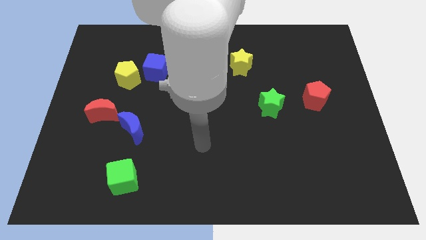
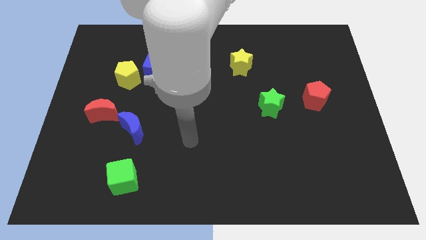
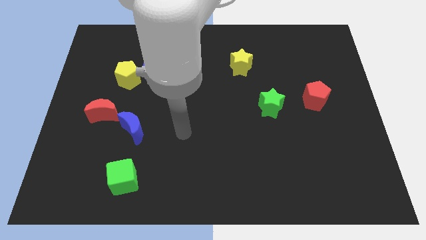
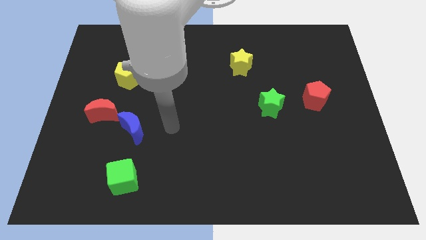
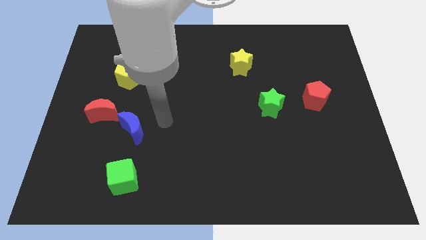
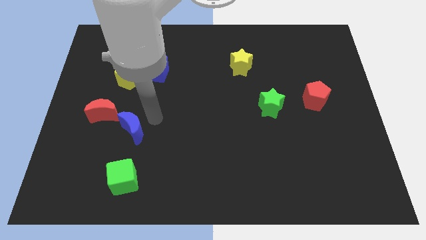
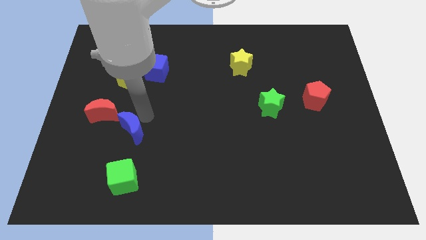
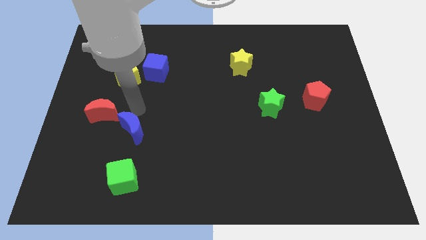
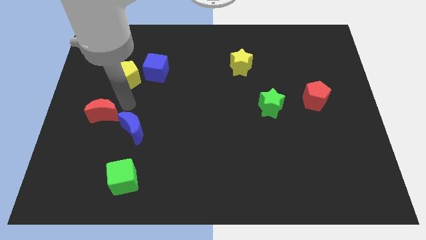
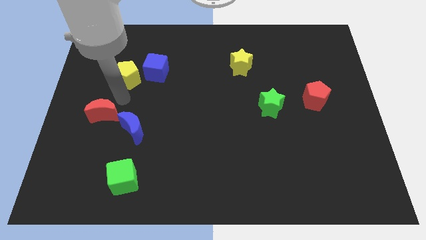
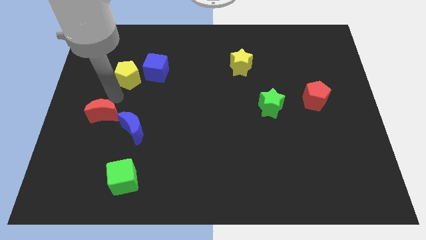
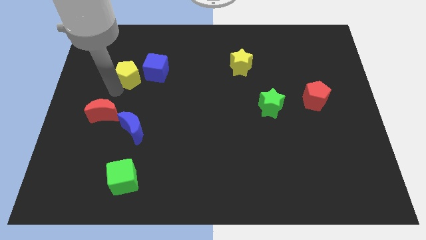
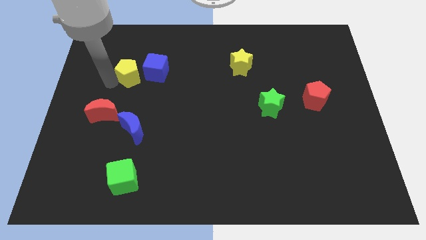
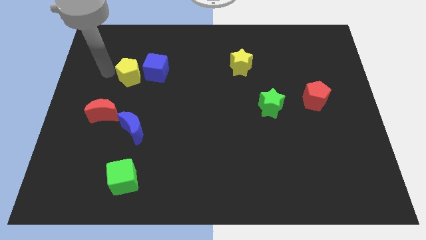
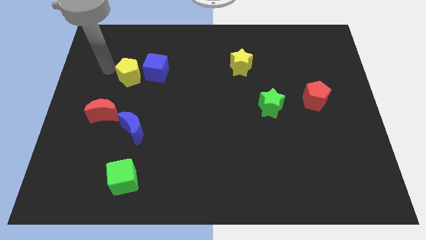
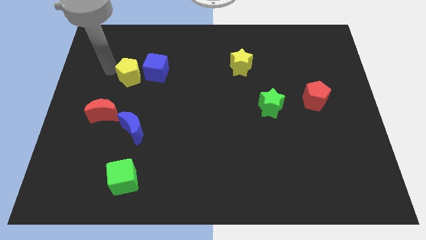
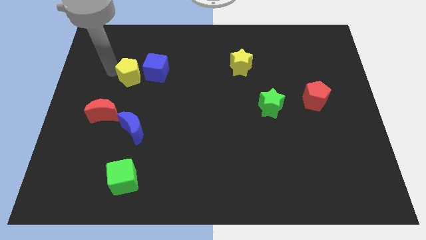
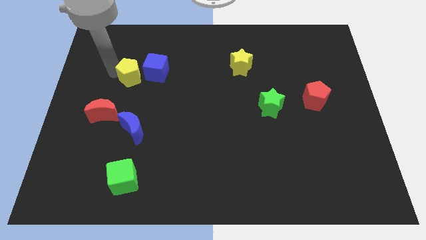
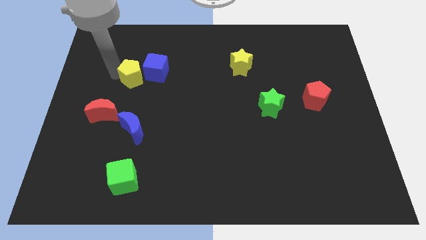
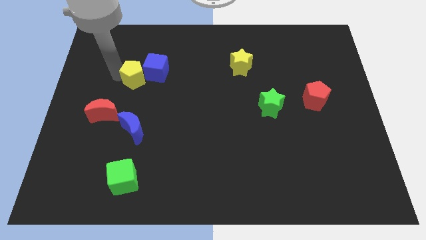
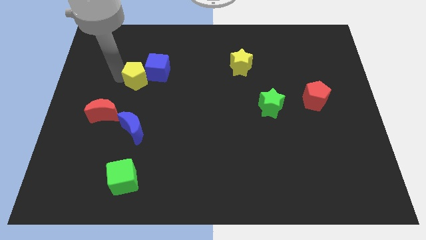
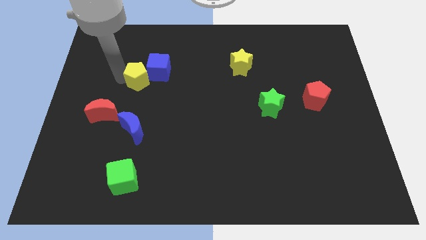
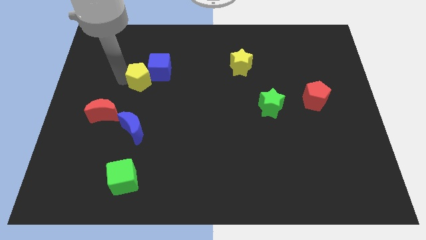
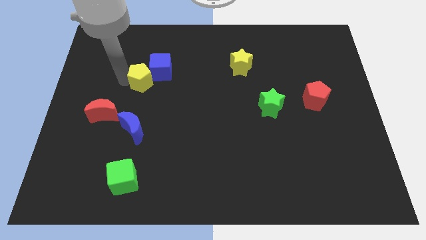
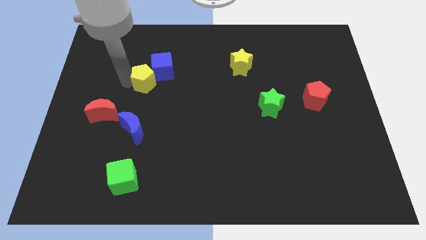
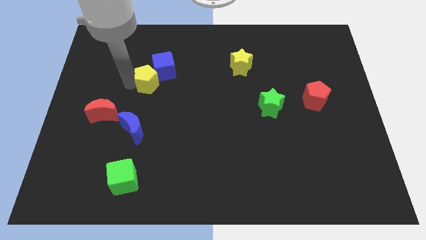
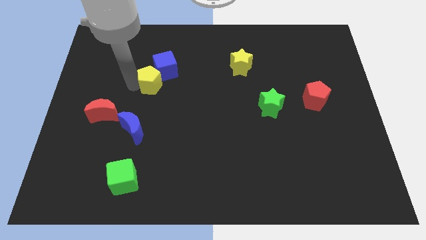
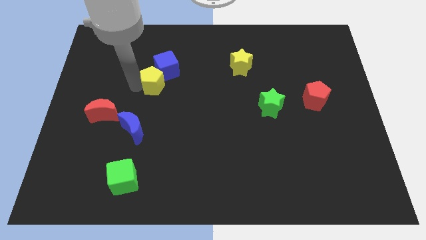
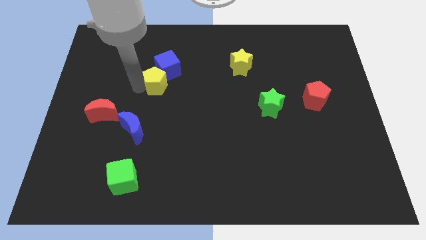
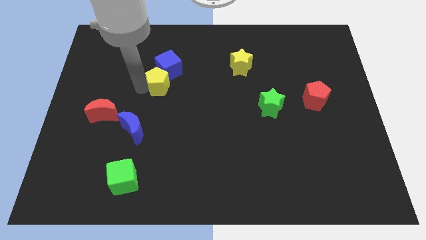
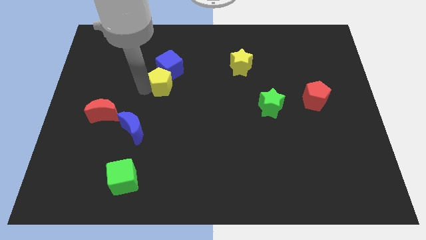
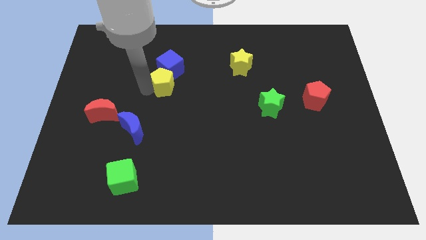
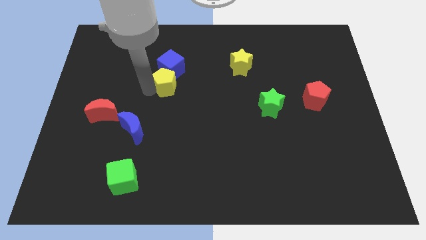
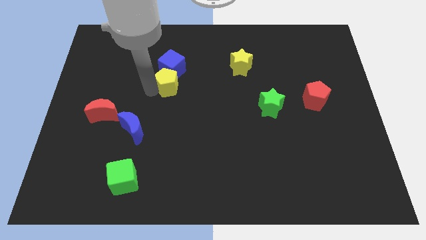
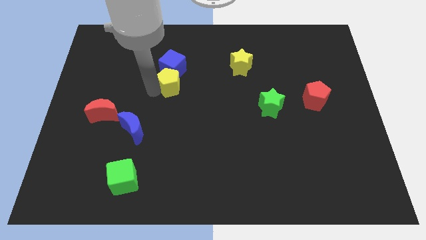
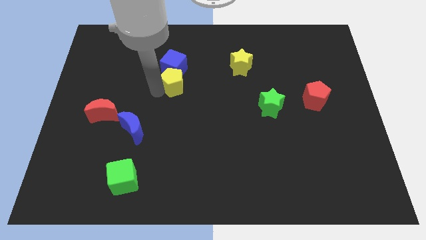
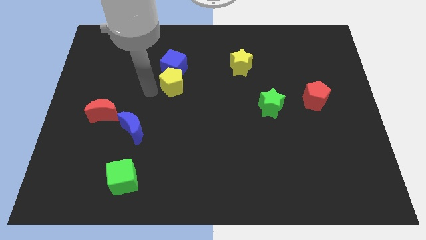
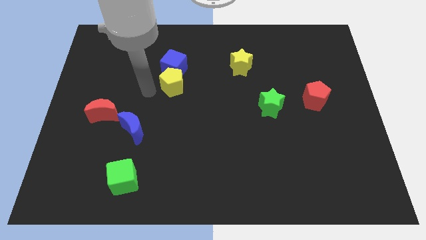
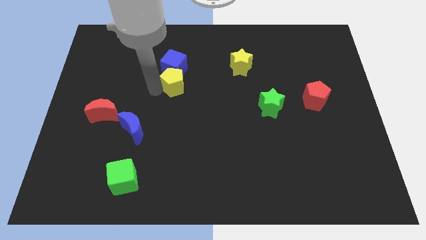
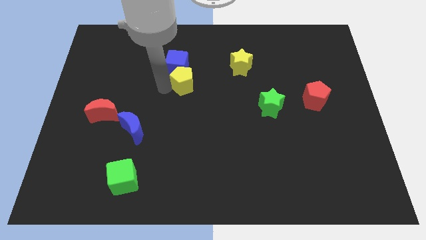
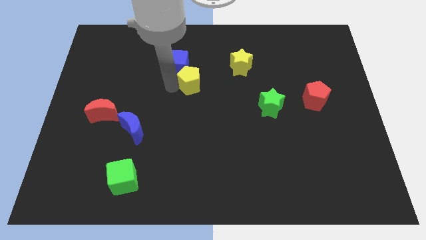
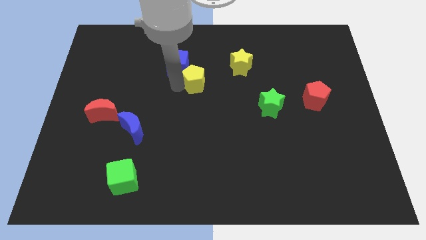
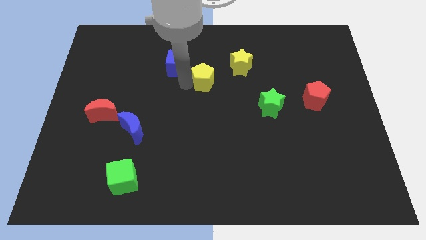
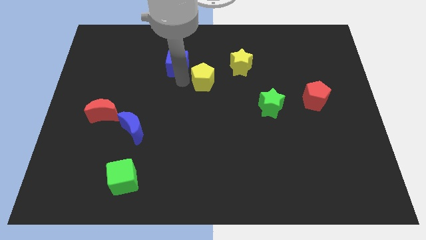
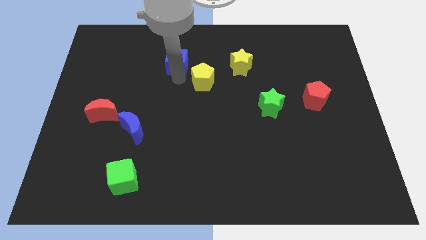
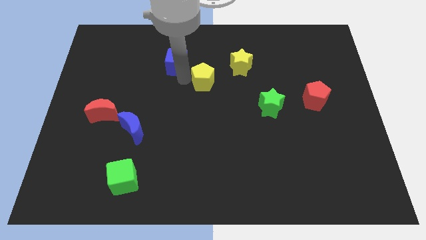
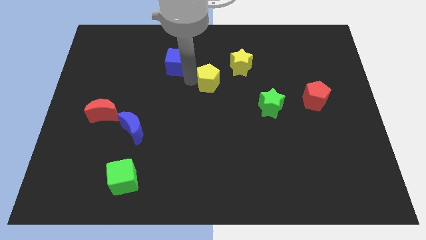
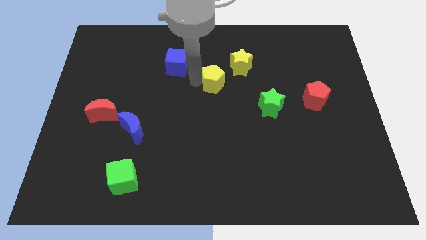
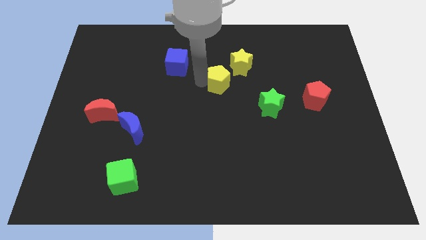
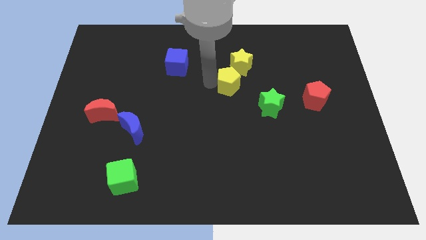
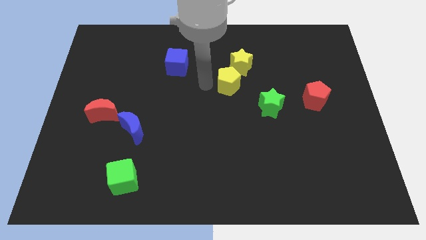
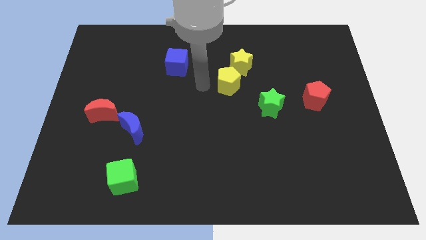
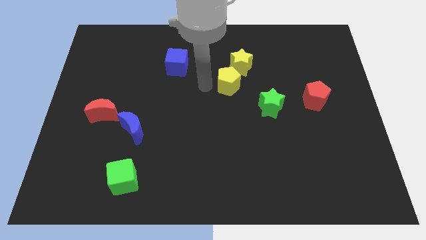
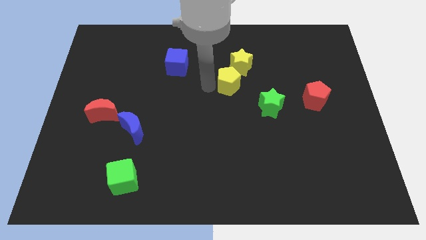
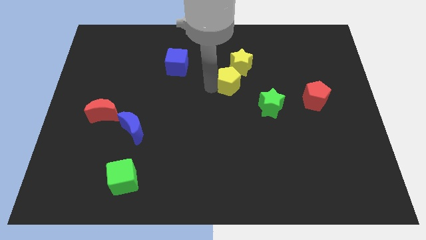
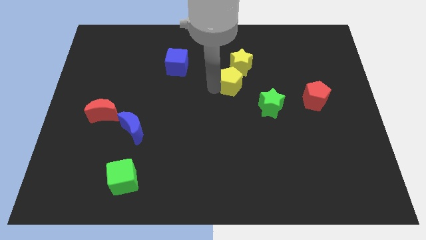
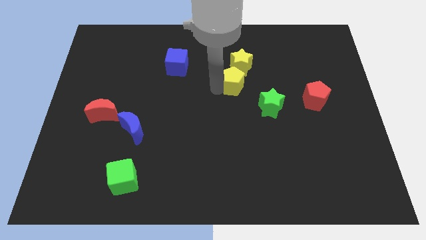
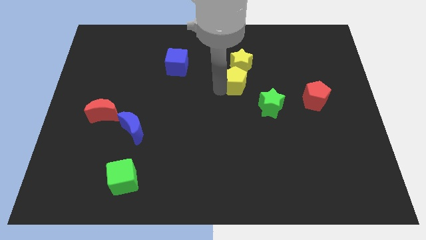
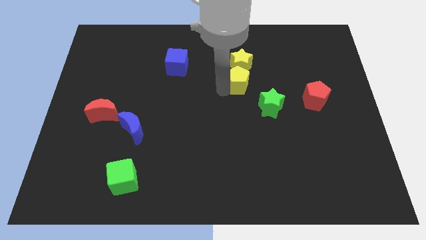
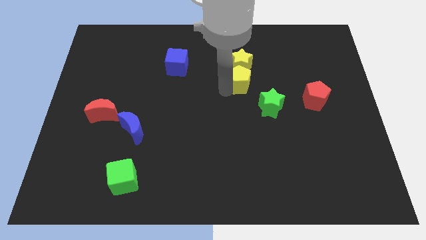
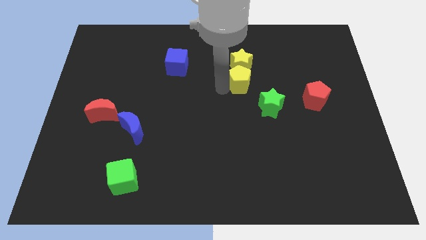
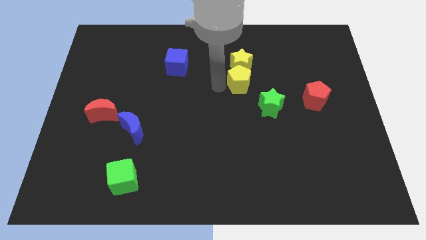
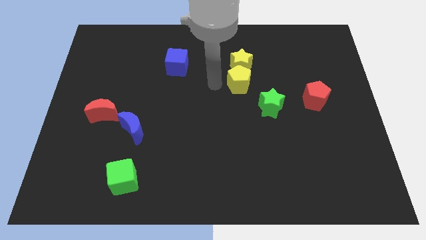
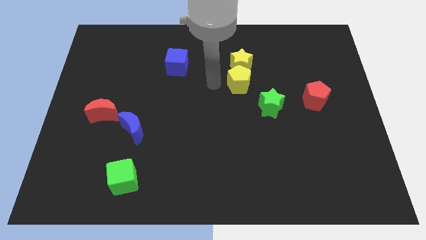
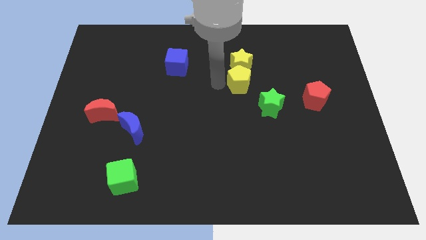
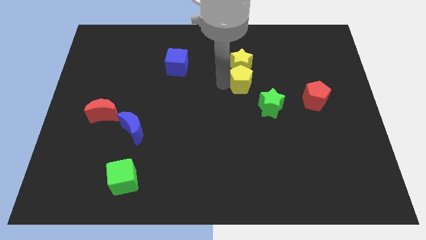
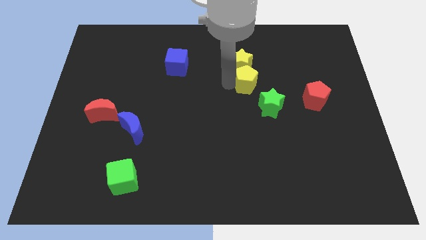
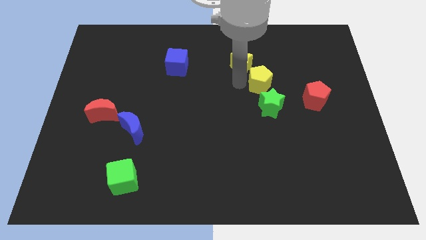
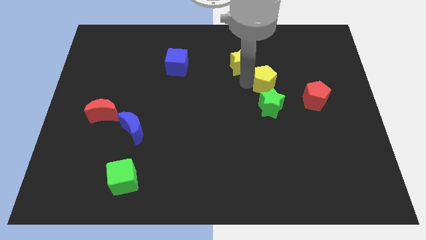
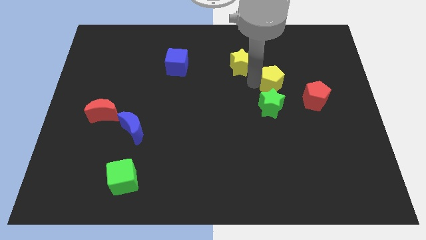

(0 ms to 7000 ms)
push the yellow pentagon to the top right side of the green star
